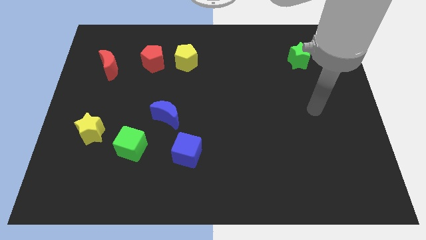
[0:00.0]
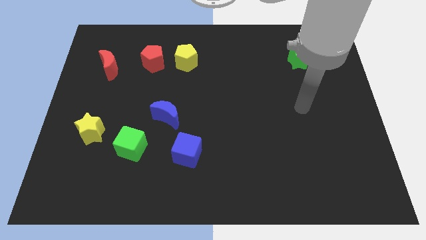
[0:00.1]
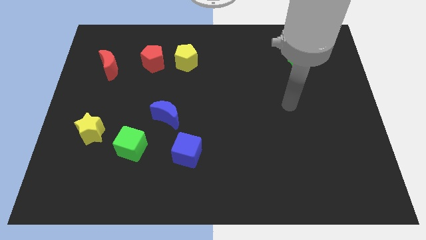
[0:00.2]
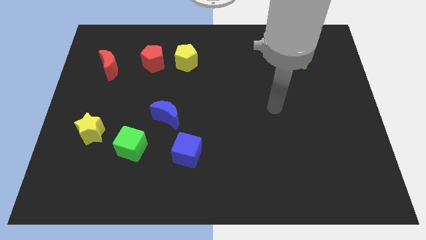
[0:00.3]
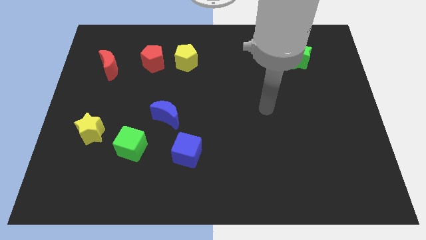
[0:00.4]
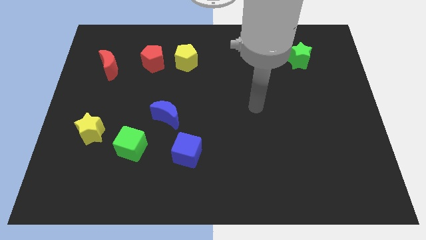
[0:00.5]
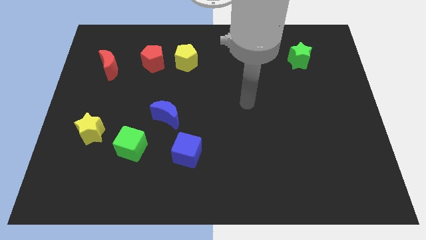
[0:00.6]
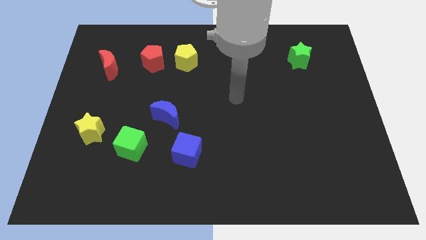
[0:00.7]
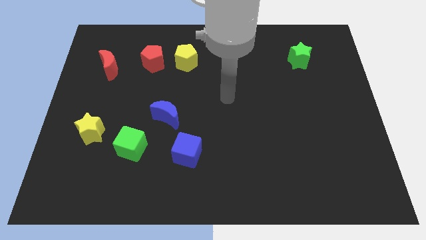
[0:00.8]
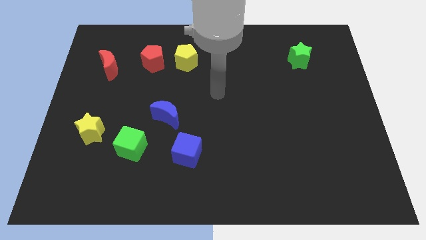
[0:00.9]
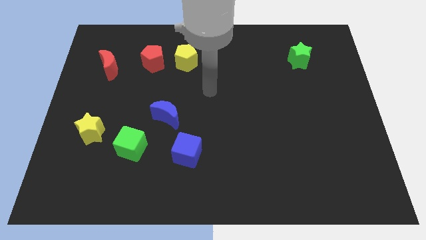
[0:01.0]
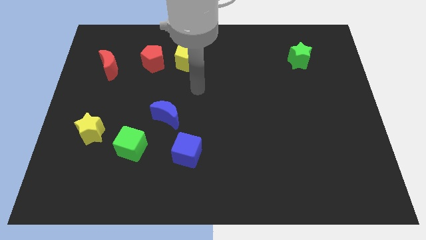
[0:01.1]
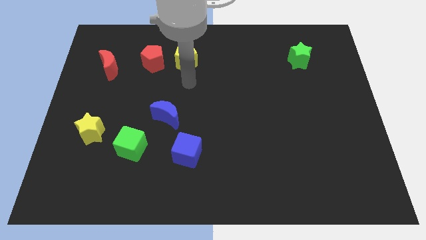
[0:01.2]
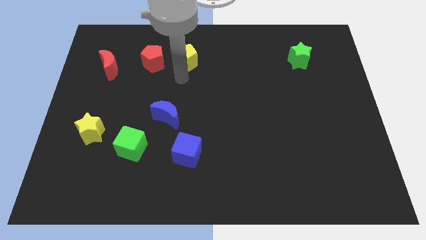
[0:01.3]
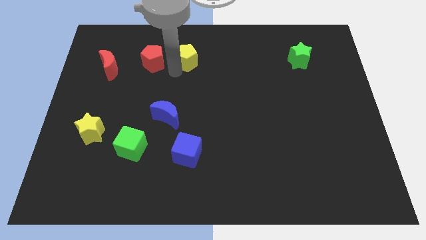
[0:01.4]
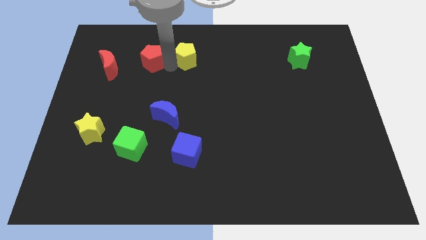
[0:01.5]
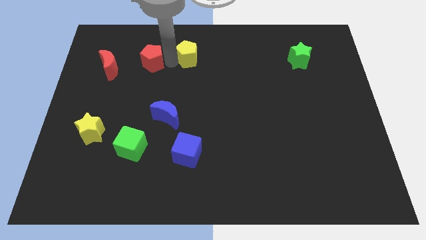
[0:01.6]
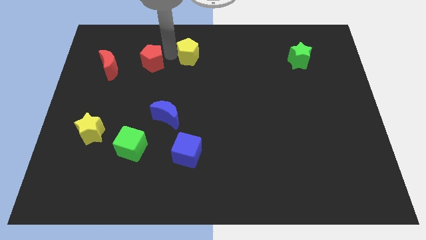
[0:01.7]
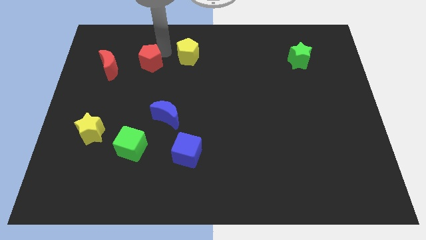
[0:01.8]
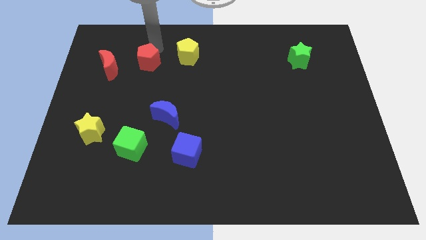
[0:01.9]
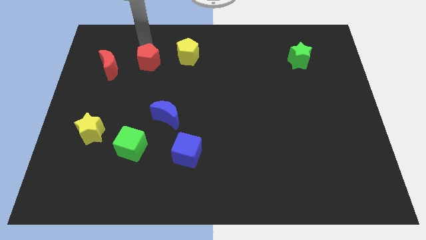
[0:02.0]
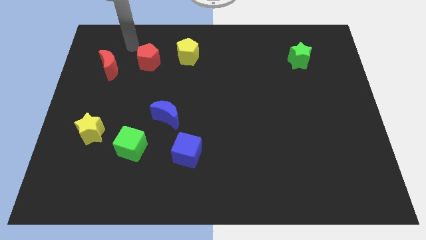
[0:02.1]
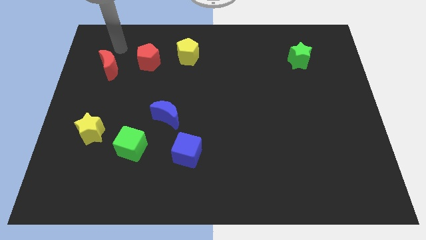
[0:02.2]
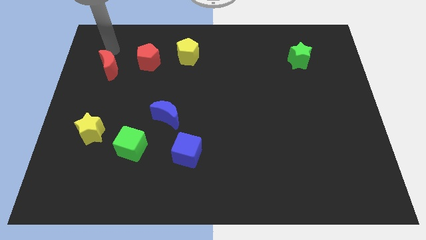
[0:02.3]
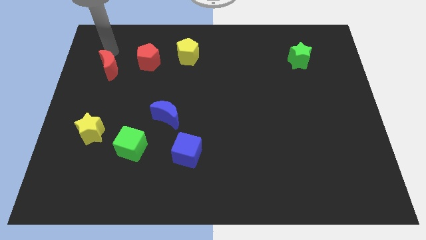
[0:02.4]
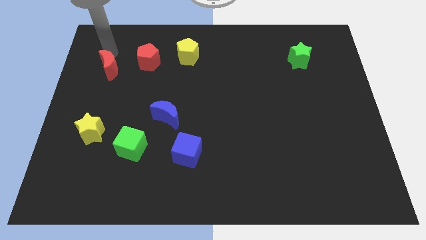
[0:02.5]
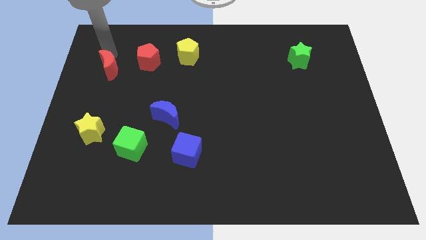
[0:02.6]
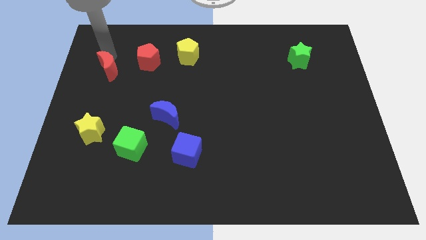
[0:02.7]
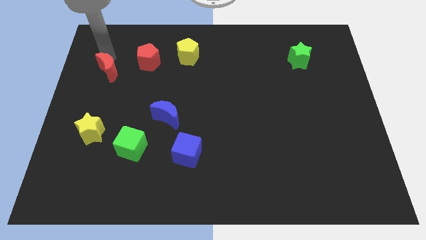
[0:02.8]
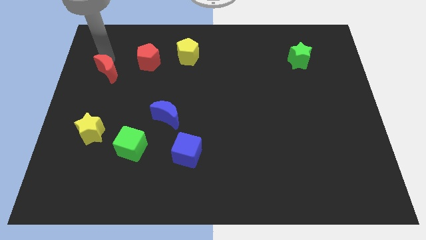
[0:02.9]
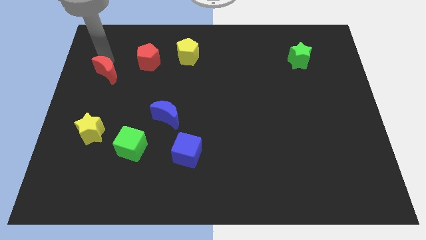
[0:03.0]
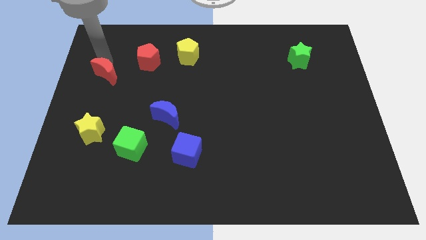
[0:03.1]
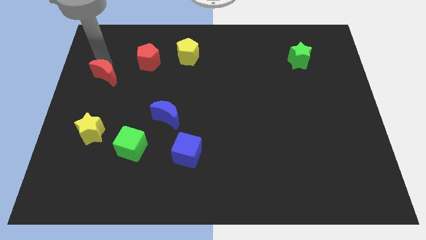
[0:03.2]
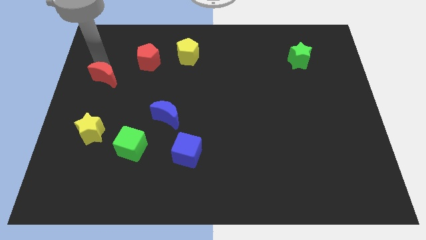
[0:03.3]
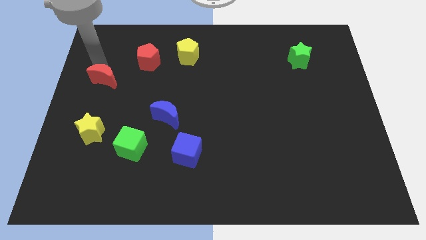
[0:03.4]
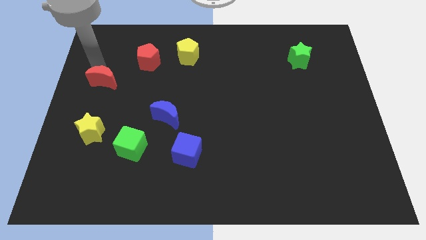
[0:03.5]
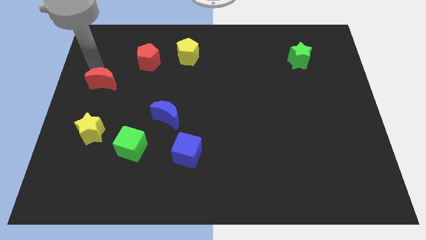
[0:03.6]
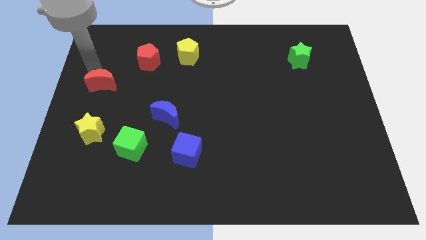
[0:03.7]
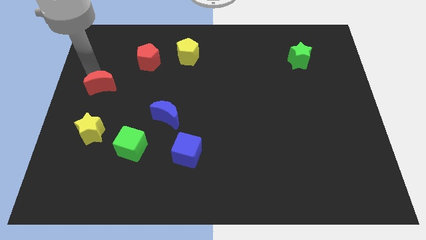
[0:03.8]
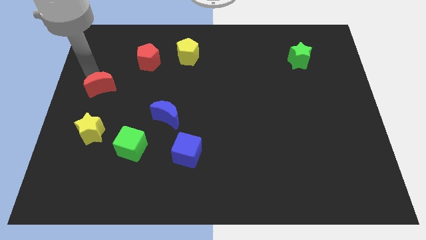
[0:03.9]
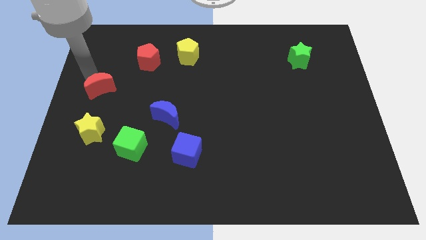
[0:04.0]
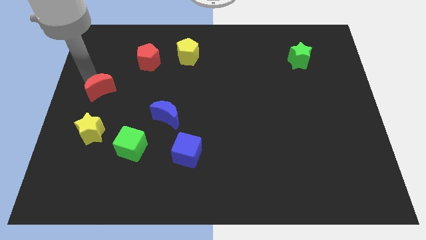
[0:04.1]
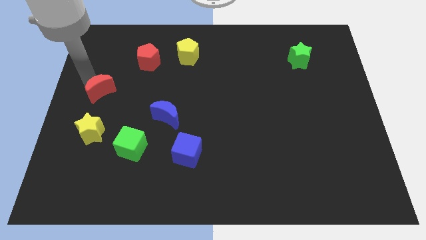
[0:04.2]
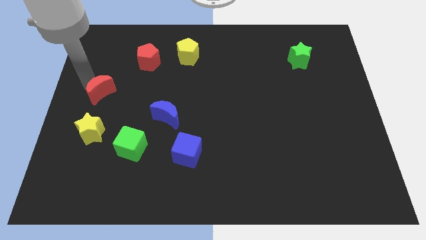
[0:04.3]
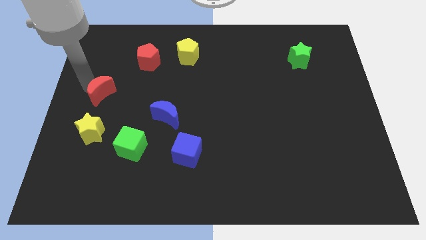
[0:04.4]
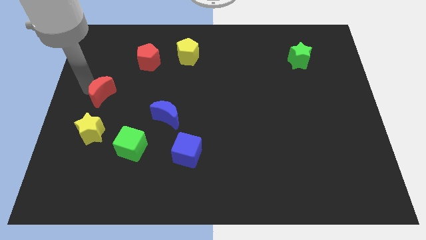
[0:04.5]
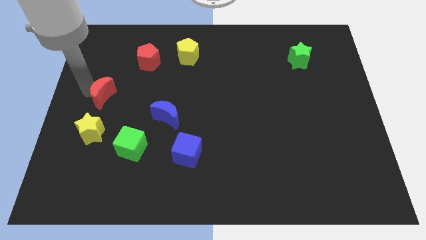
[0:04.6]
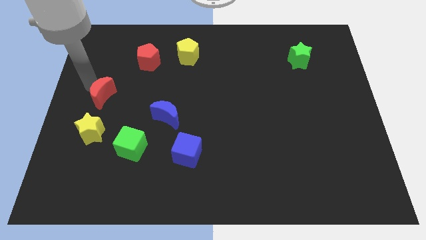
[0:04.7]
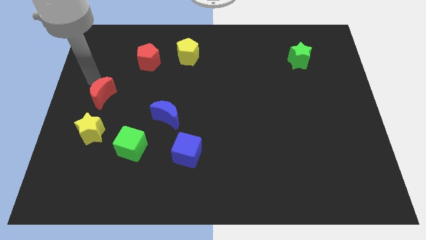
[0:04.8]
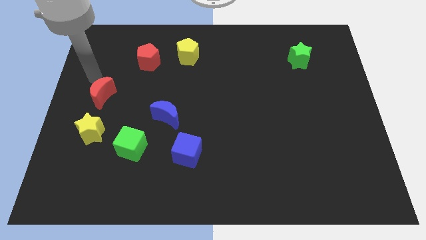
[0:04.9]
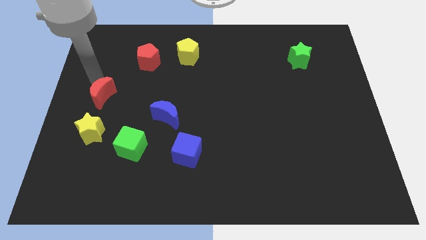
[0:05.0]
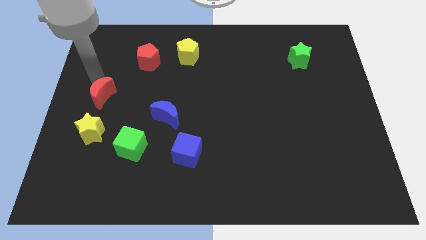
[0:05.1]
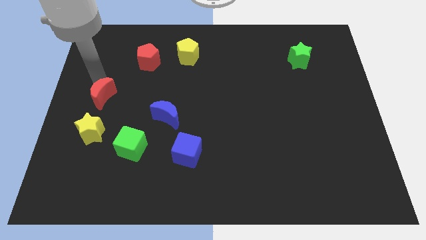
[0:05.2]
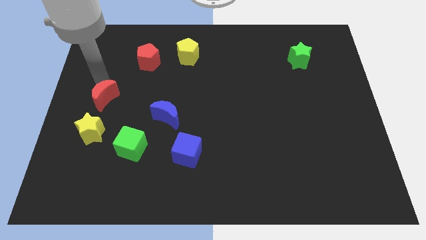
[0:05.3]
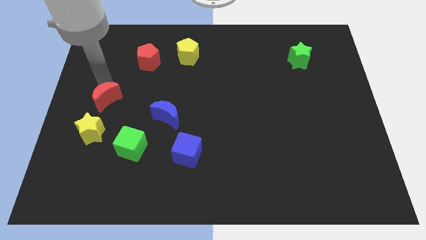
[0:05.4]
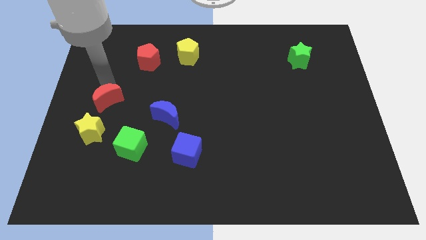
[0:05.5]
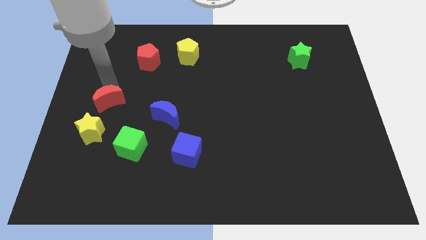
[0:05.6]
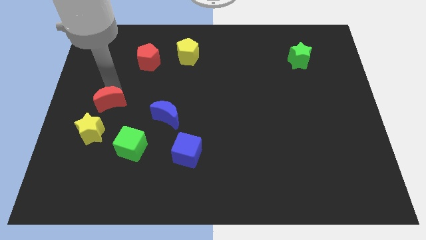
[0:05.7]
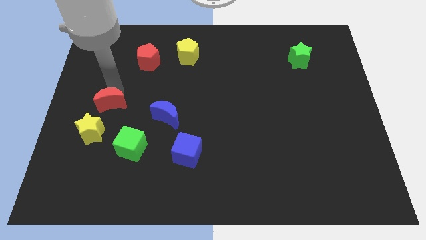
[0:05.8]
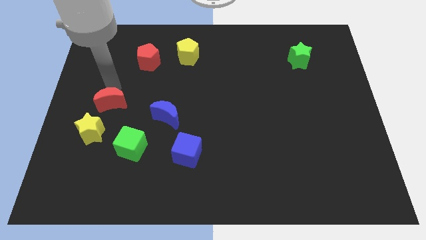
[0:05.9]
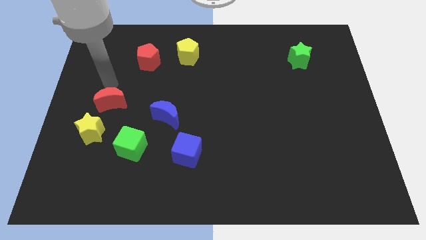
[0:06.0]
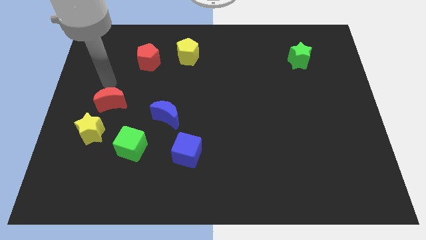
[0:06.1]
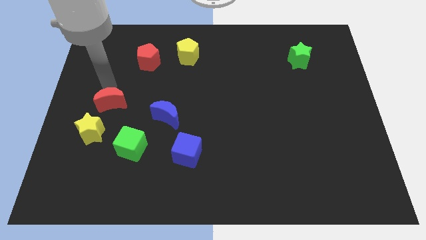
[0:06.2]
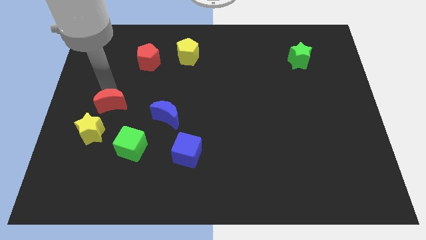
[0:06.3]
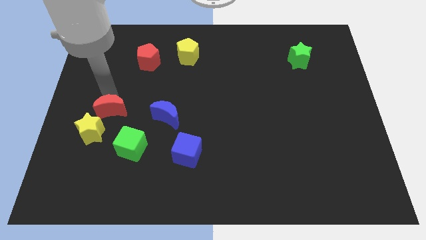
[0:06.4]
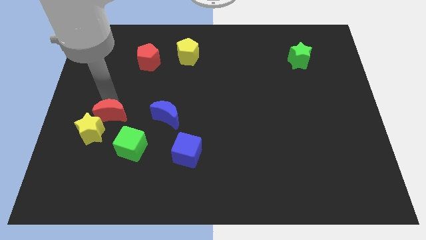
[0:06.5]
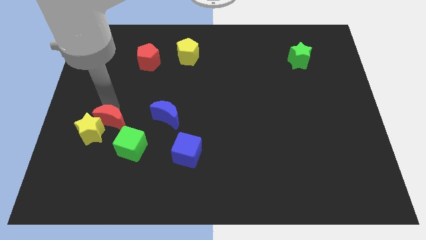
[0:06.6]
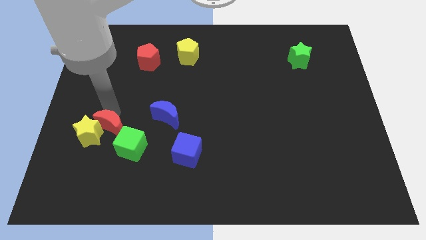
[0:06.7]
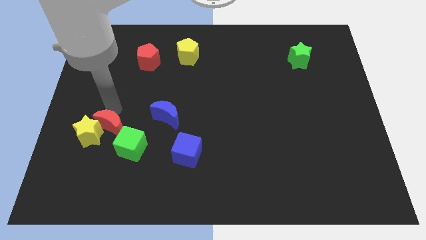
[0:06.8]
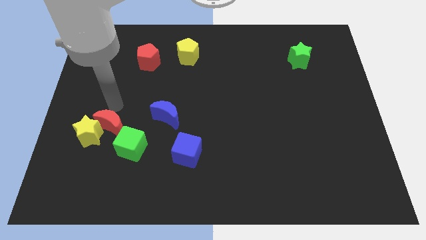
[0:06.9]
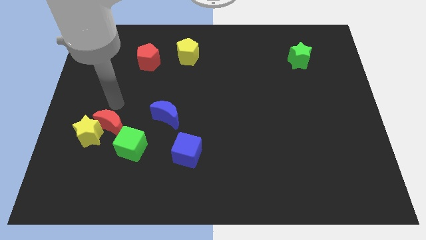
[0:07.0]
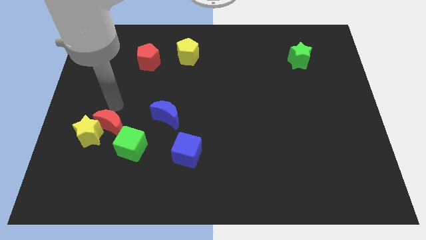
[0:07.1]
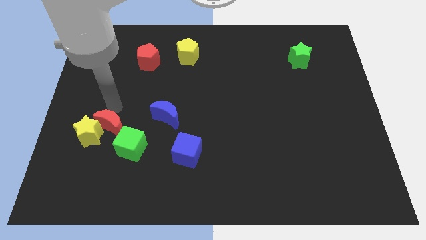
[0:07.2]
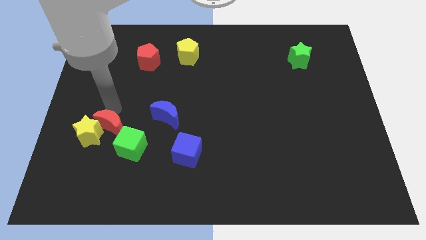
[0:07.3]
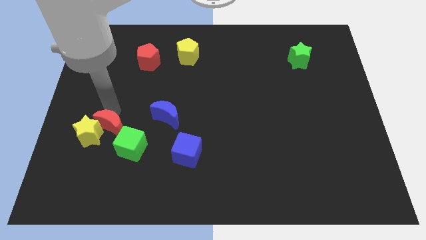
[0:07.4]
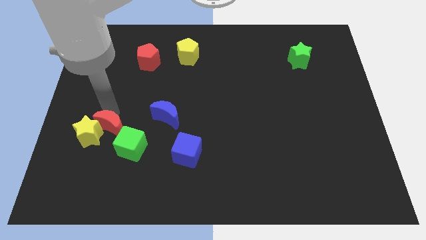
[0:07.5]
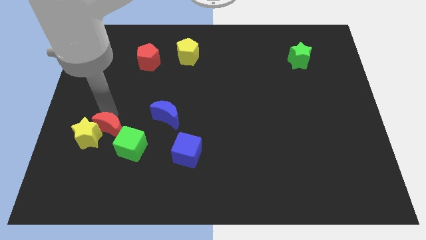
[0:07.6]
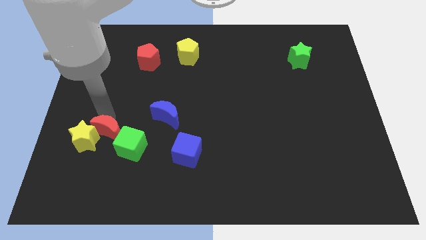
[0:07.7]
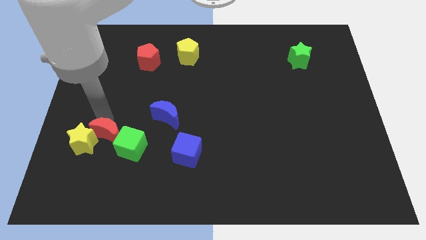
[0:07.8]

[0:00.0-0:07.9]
move the red moon downwards
